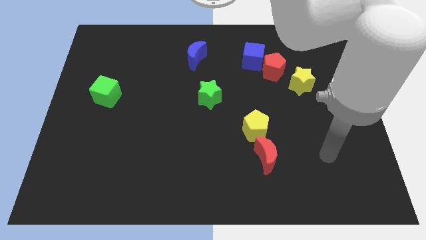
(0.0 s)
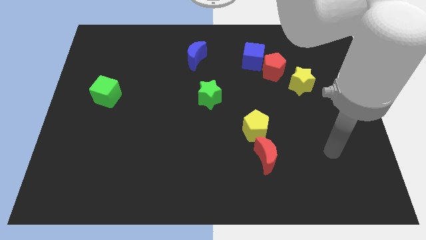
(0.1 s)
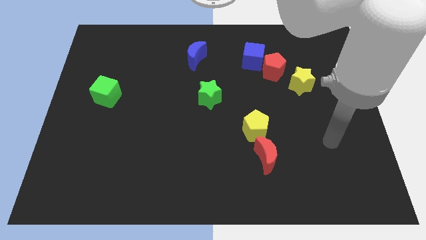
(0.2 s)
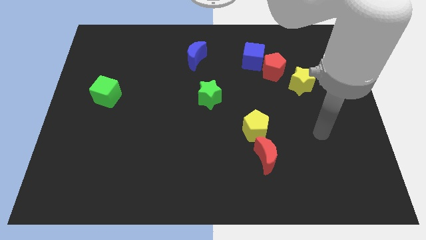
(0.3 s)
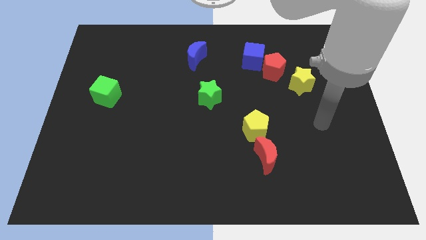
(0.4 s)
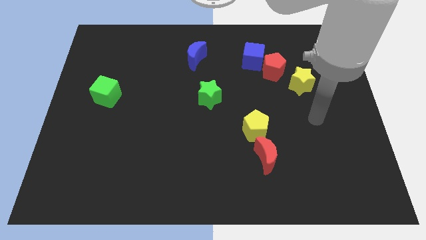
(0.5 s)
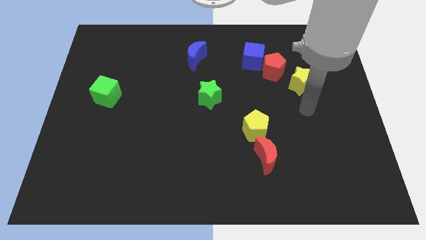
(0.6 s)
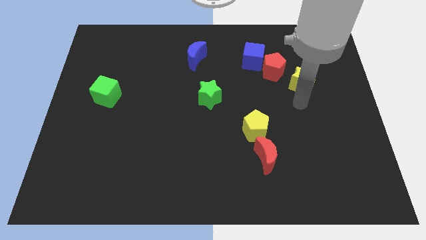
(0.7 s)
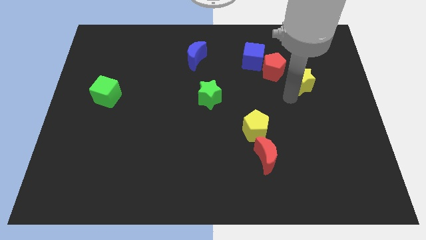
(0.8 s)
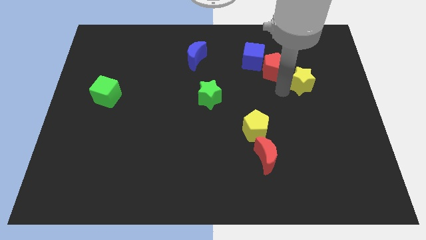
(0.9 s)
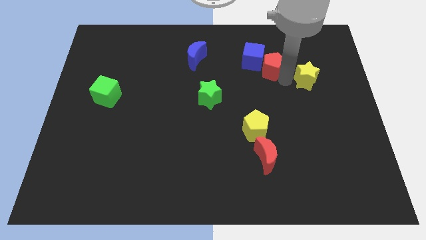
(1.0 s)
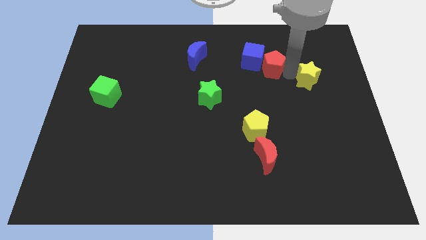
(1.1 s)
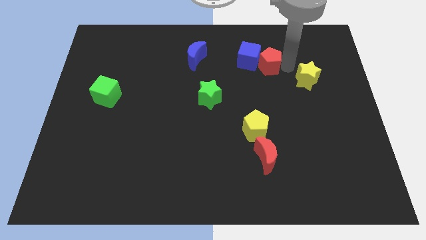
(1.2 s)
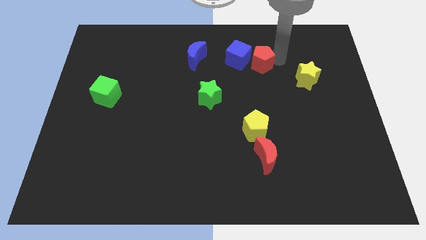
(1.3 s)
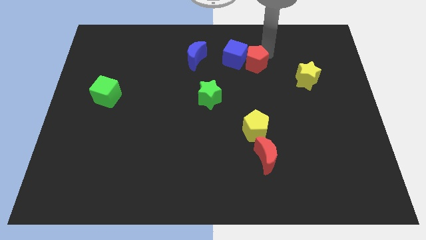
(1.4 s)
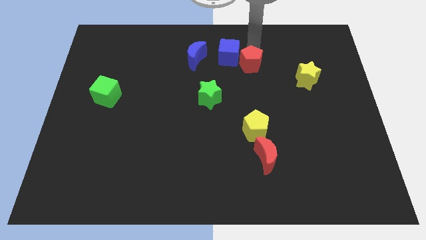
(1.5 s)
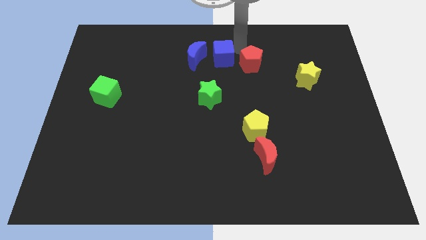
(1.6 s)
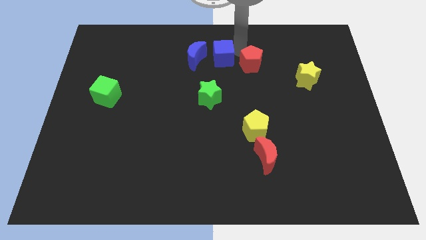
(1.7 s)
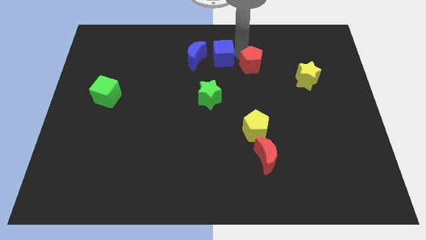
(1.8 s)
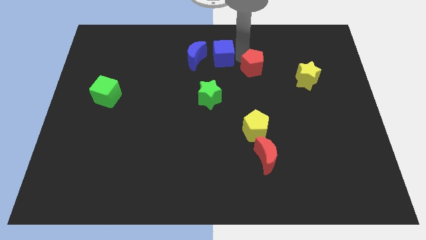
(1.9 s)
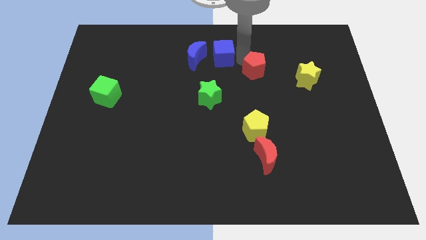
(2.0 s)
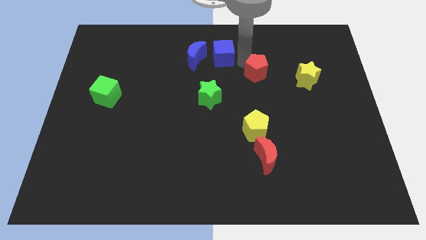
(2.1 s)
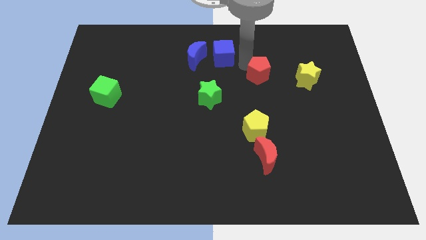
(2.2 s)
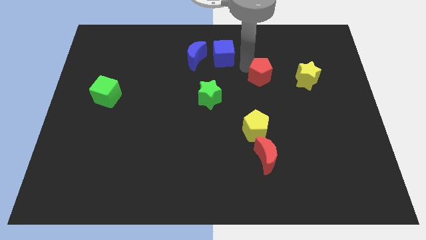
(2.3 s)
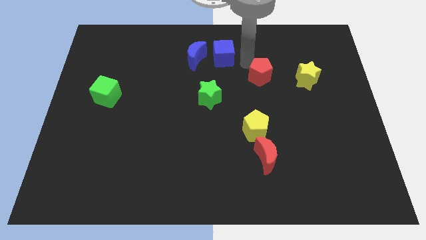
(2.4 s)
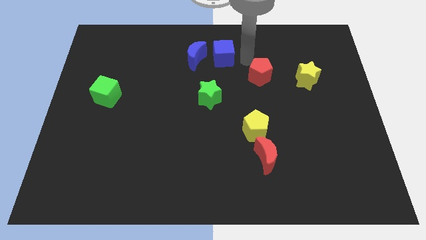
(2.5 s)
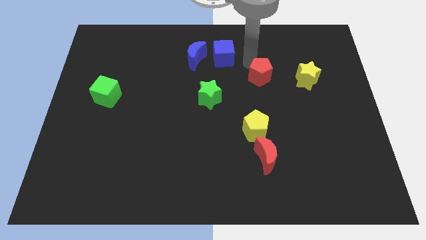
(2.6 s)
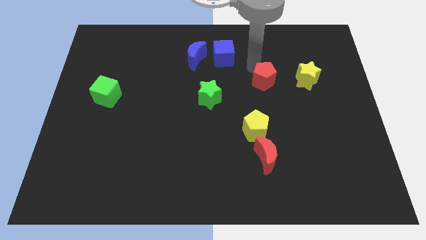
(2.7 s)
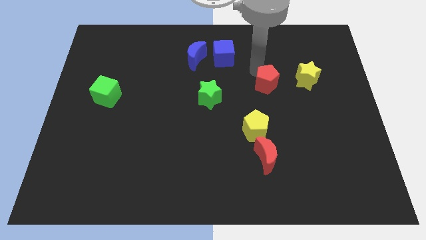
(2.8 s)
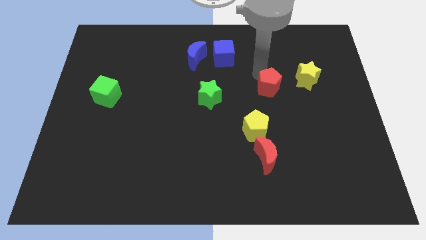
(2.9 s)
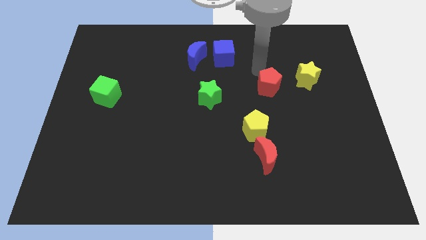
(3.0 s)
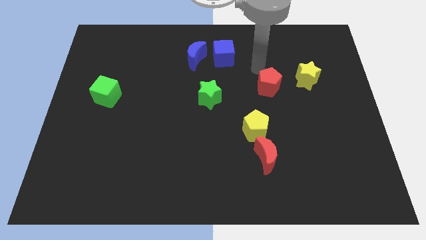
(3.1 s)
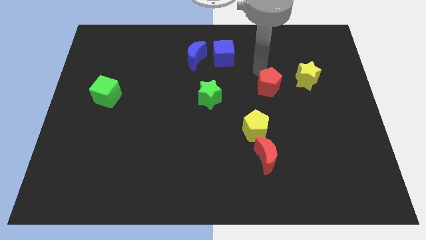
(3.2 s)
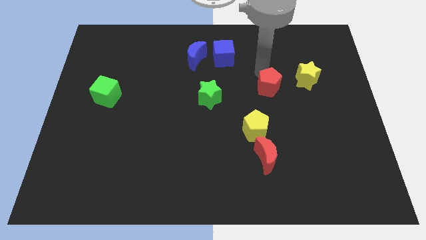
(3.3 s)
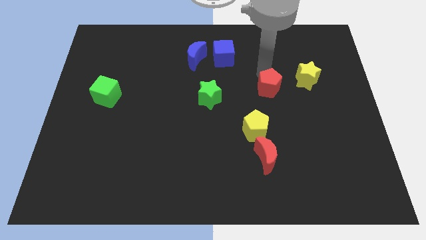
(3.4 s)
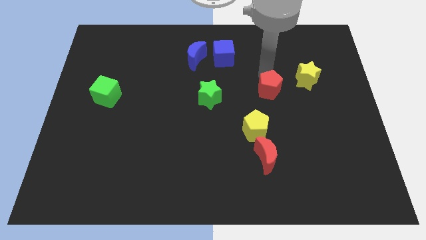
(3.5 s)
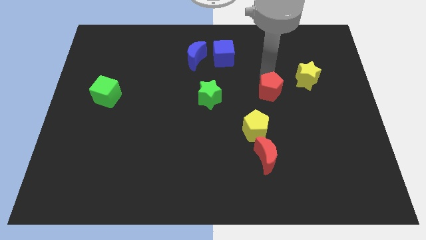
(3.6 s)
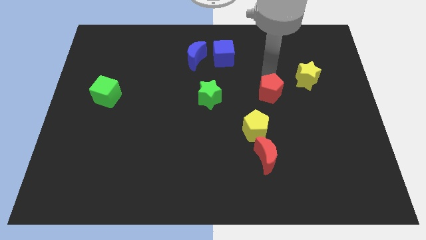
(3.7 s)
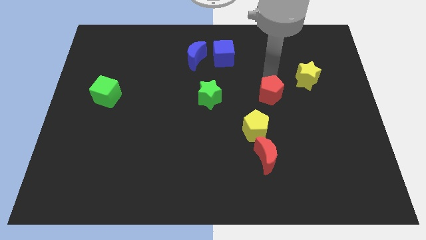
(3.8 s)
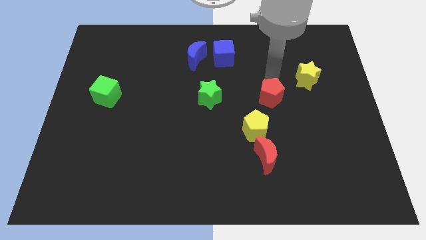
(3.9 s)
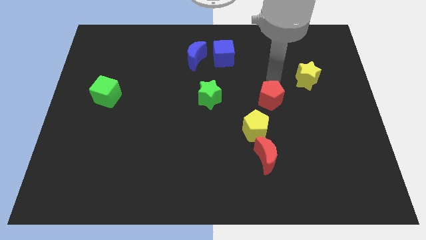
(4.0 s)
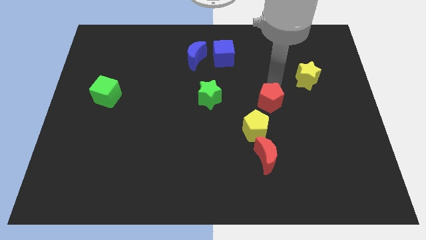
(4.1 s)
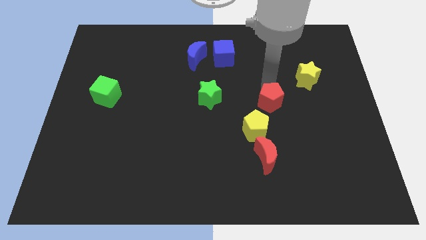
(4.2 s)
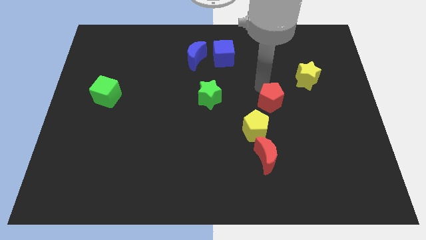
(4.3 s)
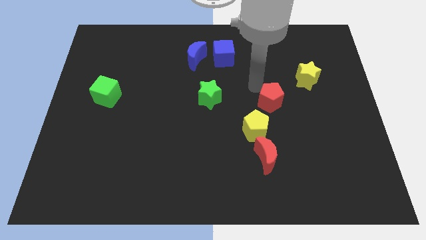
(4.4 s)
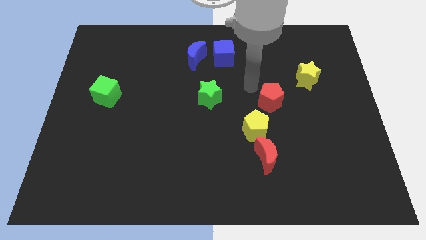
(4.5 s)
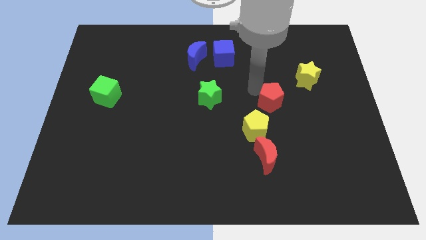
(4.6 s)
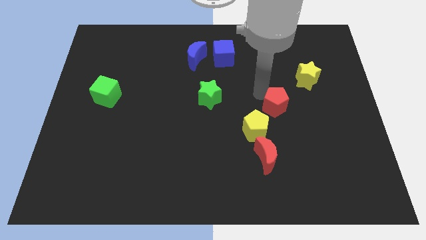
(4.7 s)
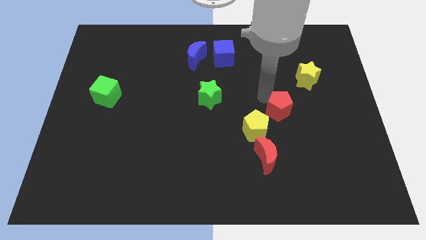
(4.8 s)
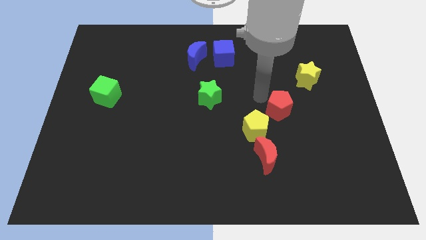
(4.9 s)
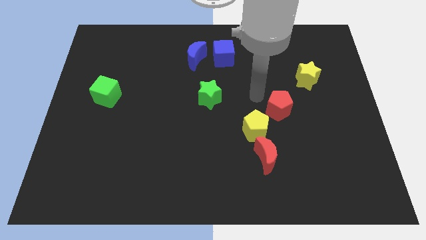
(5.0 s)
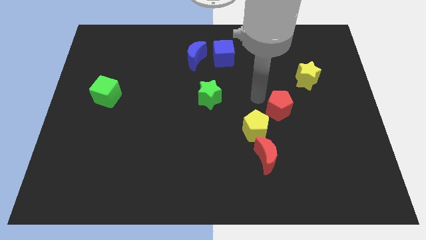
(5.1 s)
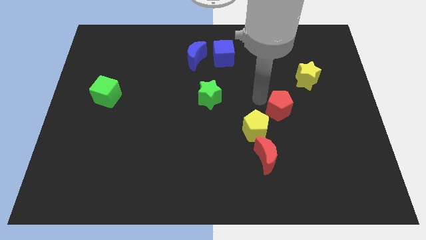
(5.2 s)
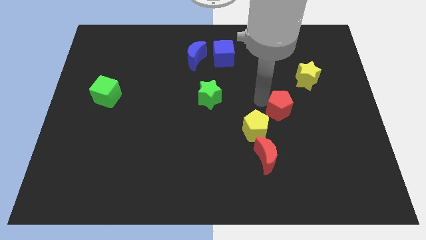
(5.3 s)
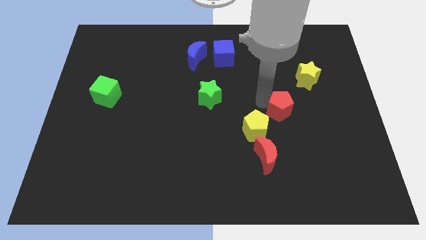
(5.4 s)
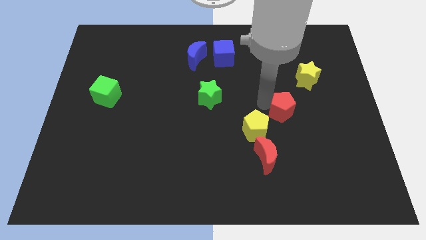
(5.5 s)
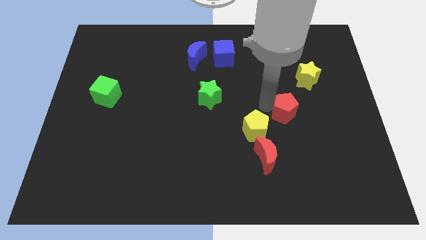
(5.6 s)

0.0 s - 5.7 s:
move the red pentagon to the right side of the yellow pentagon

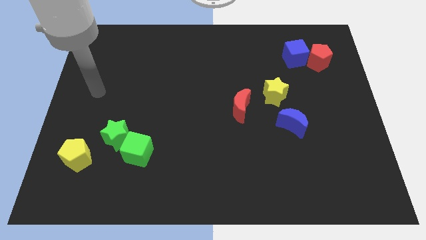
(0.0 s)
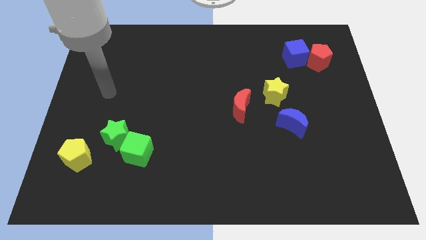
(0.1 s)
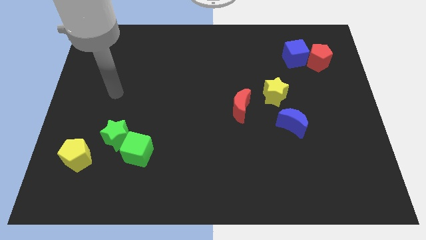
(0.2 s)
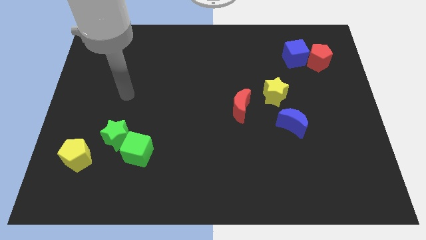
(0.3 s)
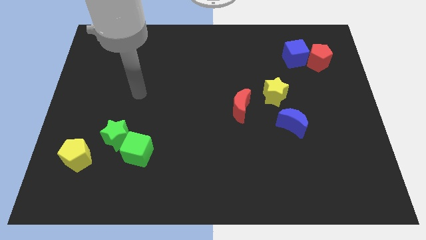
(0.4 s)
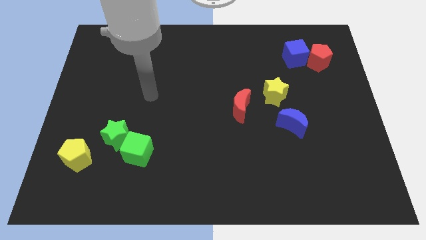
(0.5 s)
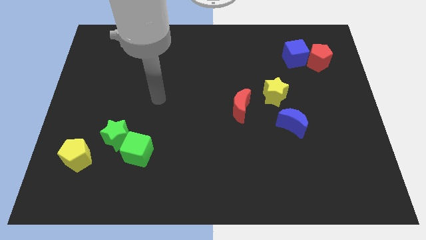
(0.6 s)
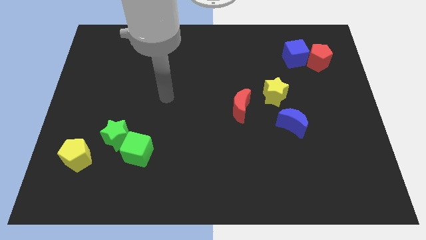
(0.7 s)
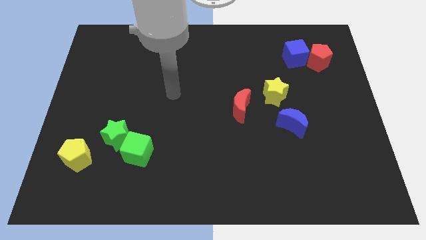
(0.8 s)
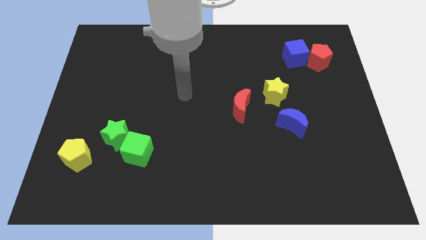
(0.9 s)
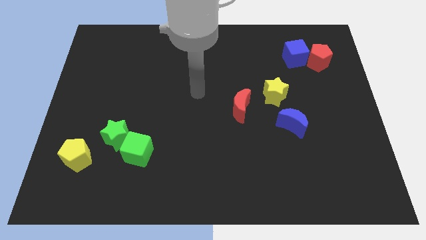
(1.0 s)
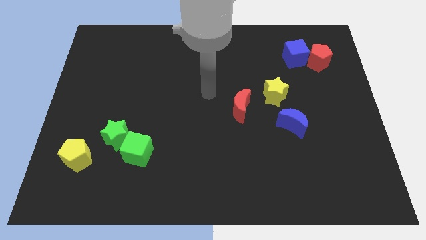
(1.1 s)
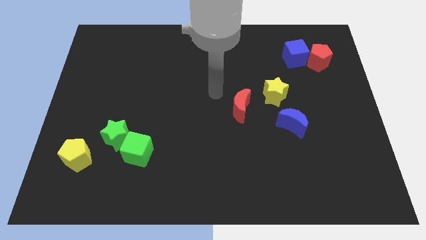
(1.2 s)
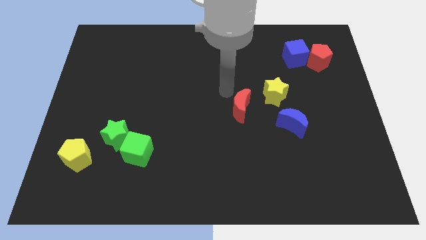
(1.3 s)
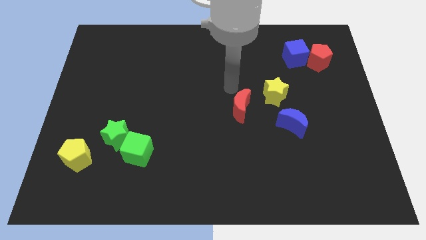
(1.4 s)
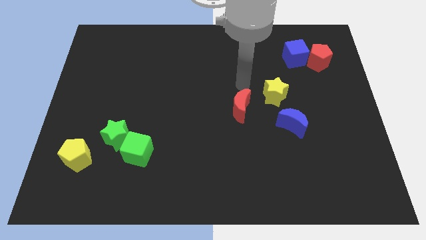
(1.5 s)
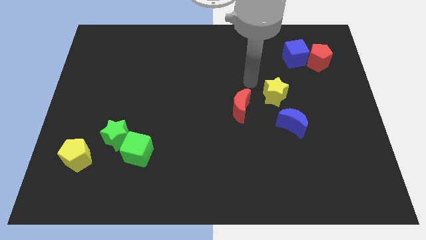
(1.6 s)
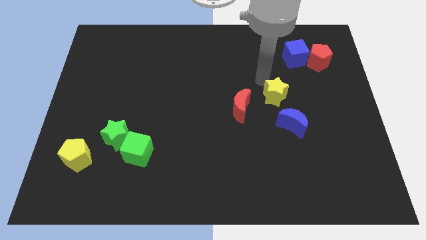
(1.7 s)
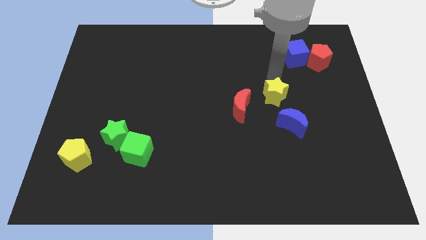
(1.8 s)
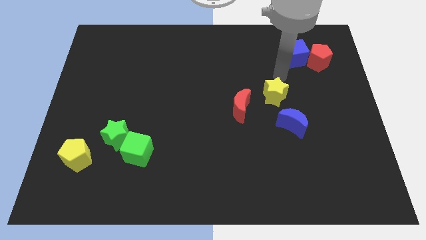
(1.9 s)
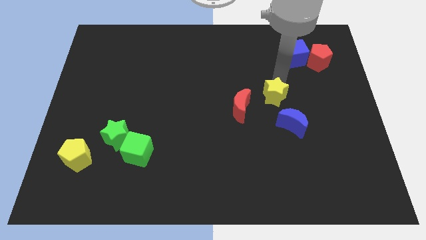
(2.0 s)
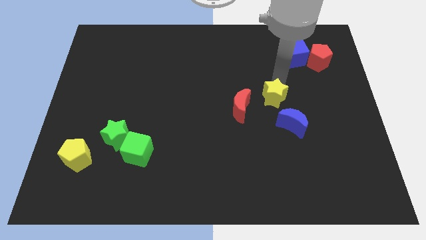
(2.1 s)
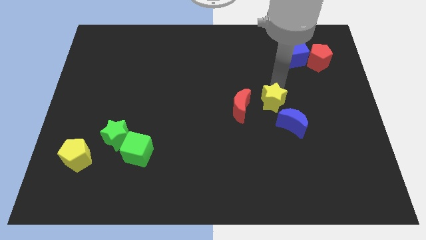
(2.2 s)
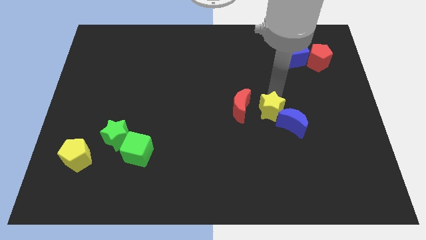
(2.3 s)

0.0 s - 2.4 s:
move the yellow star diagonally down and to the right of the red moon

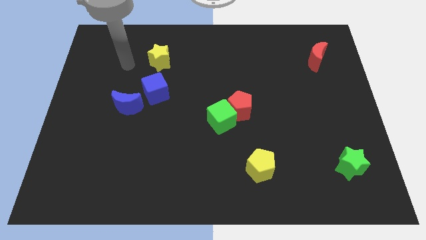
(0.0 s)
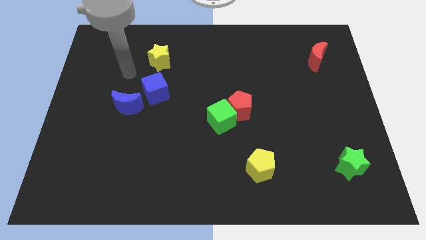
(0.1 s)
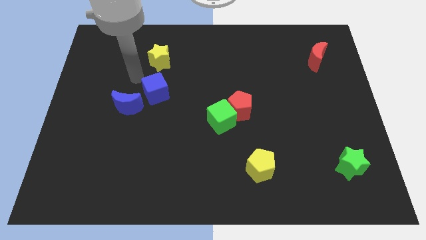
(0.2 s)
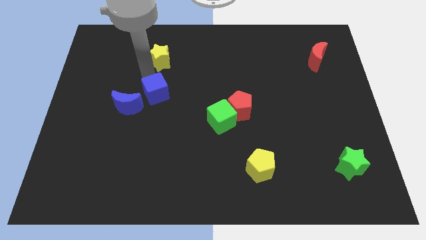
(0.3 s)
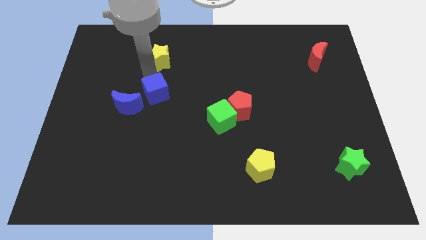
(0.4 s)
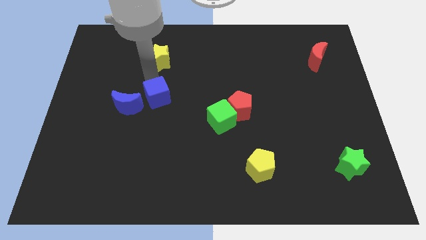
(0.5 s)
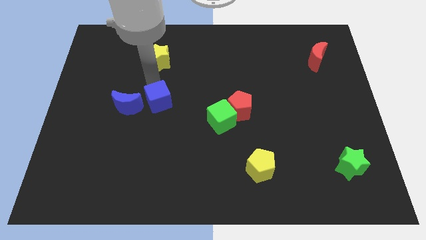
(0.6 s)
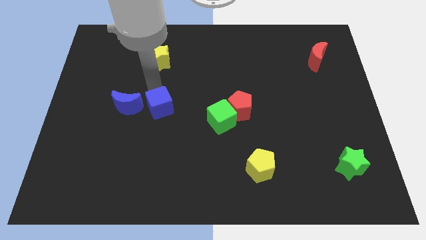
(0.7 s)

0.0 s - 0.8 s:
move the blue cube to the left side of the green cube
